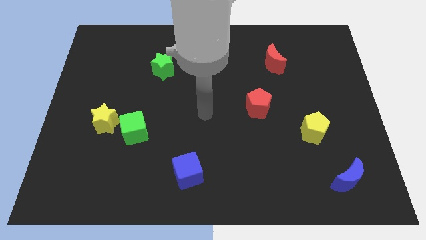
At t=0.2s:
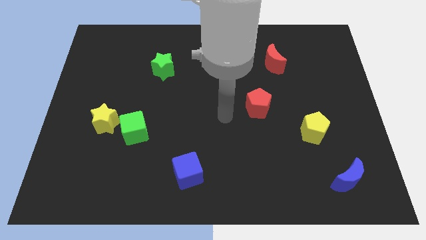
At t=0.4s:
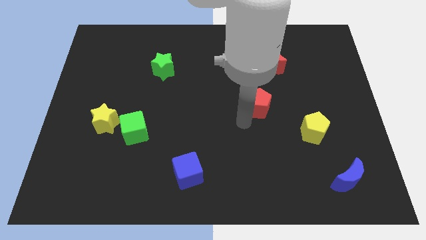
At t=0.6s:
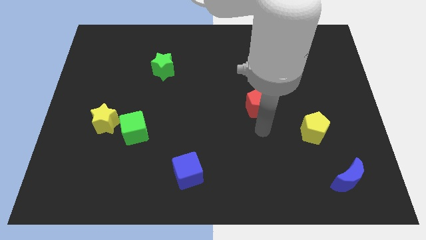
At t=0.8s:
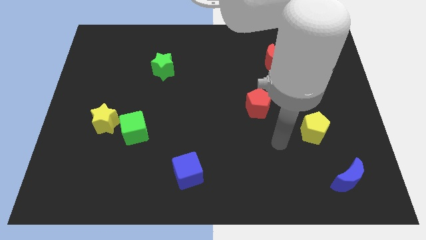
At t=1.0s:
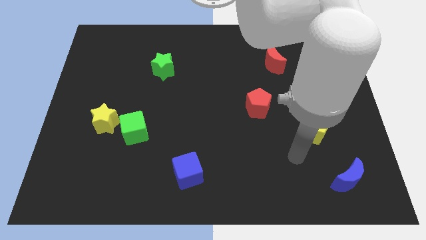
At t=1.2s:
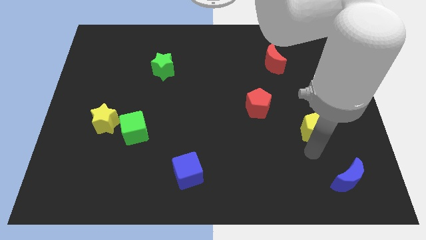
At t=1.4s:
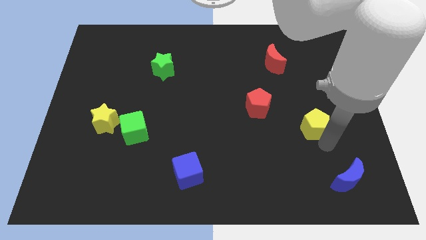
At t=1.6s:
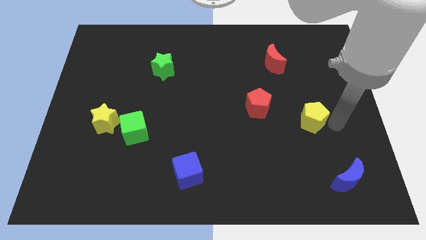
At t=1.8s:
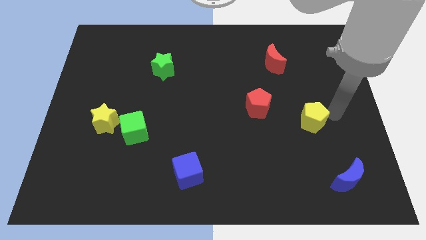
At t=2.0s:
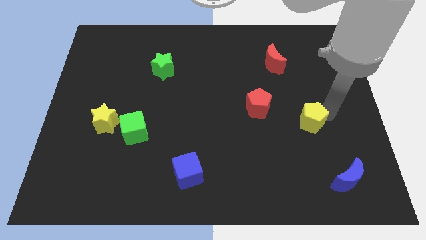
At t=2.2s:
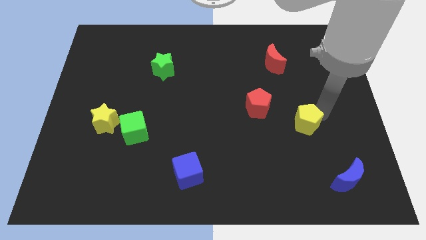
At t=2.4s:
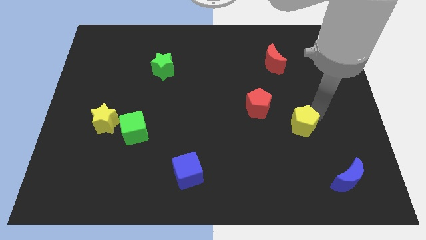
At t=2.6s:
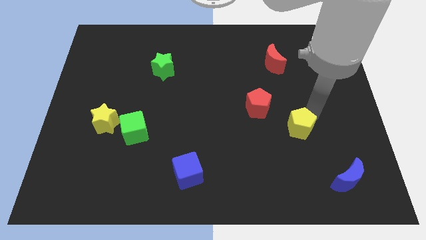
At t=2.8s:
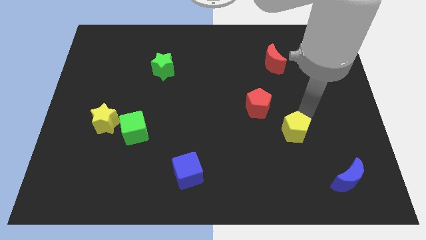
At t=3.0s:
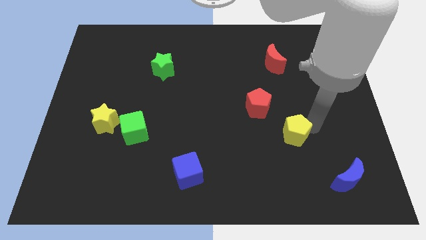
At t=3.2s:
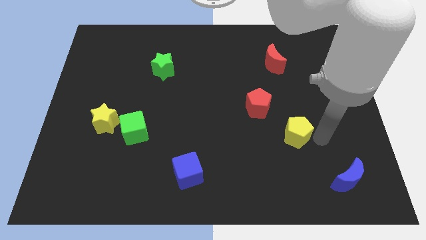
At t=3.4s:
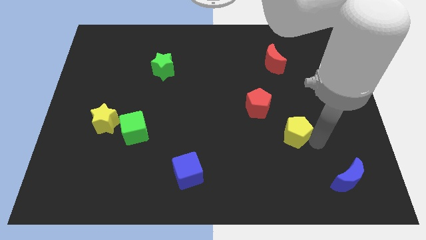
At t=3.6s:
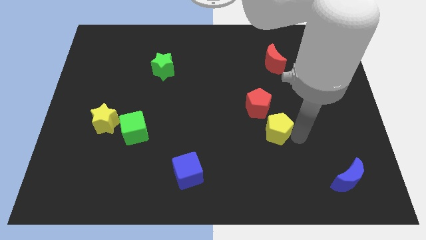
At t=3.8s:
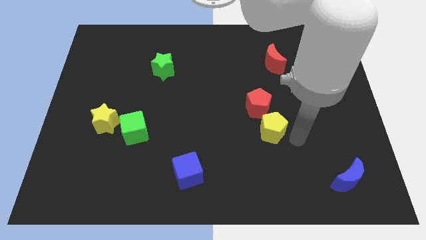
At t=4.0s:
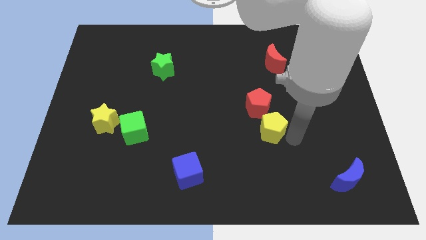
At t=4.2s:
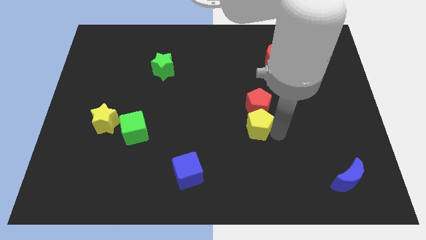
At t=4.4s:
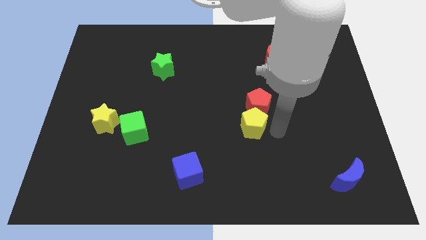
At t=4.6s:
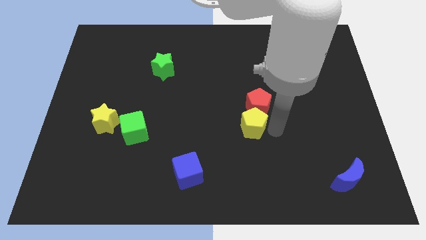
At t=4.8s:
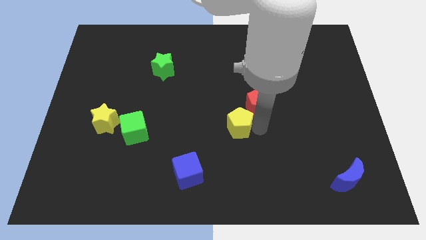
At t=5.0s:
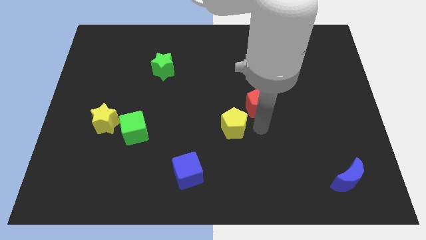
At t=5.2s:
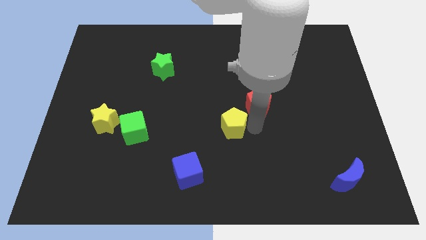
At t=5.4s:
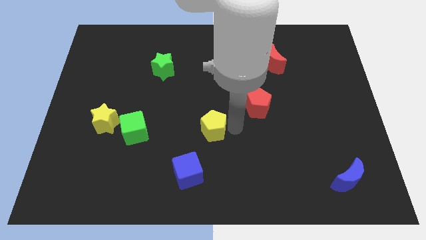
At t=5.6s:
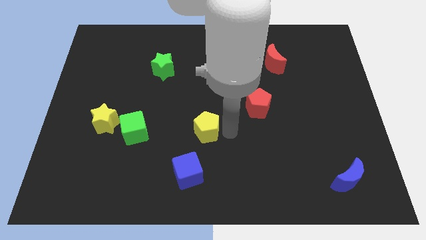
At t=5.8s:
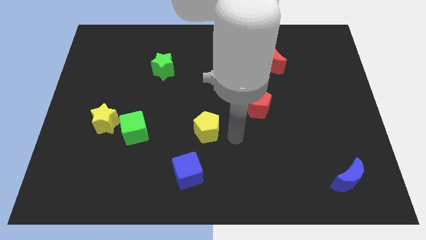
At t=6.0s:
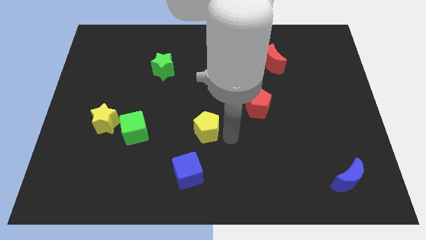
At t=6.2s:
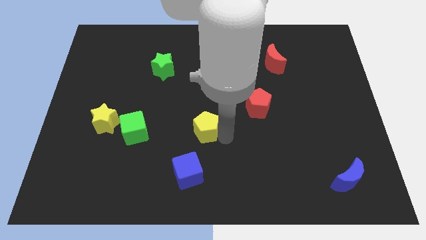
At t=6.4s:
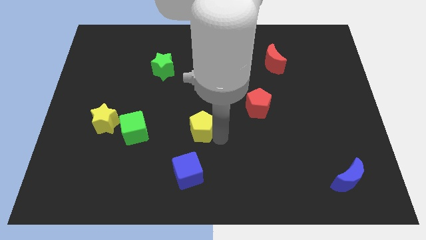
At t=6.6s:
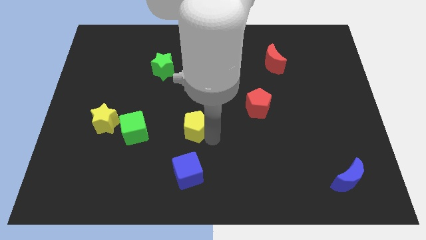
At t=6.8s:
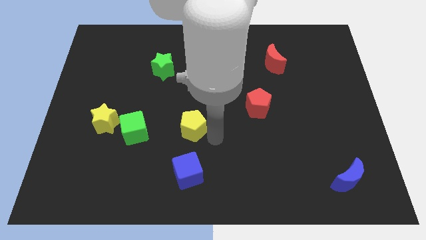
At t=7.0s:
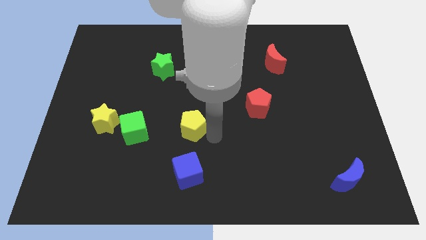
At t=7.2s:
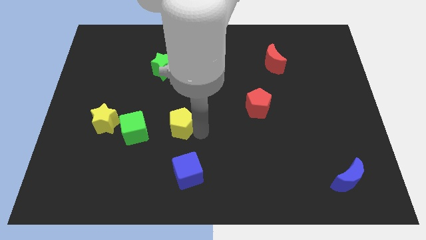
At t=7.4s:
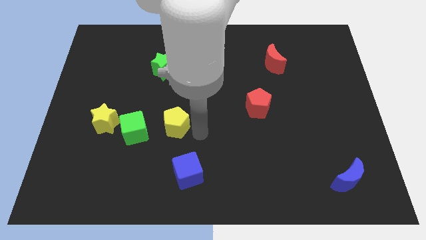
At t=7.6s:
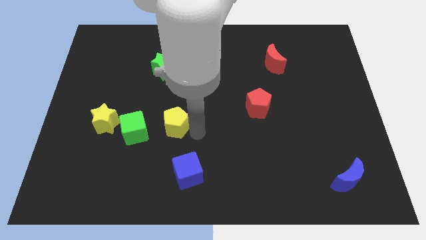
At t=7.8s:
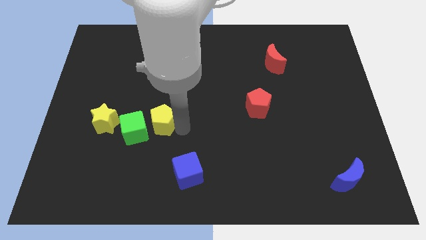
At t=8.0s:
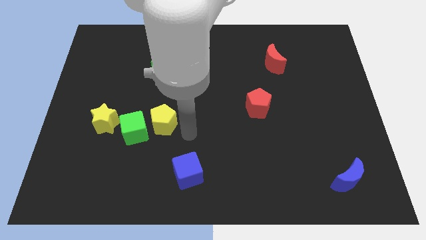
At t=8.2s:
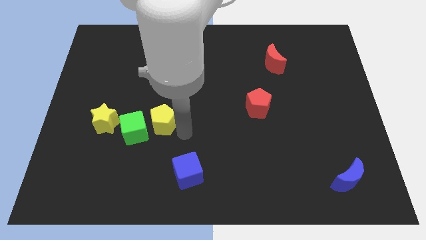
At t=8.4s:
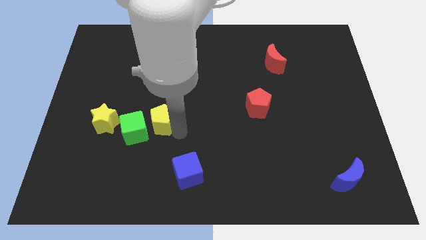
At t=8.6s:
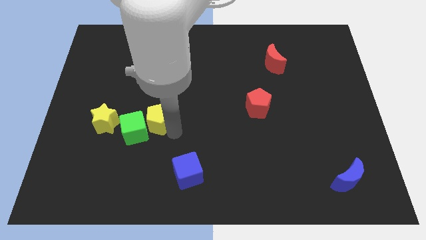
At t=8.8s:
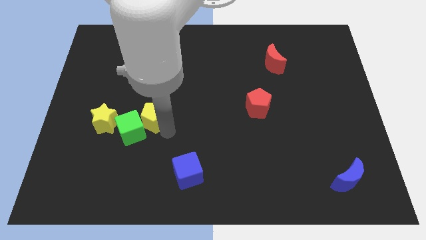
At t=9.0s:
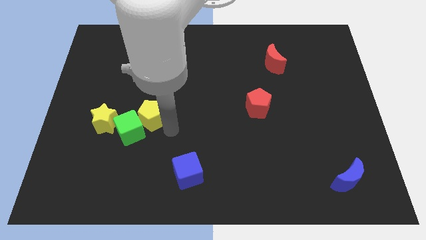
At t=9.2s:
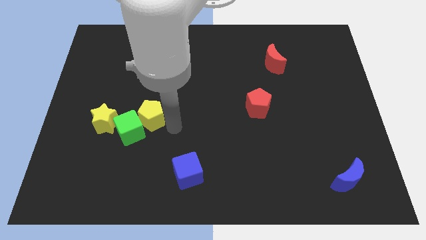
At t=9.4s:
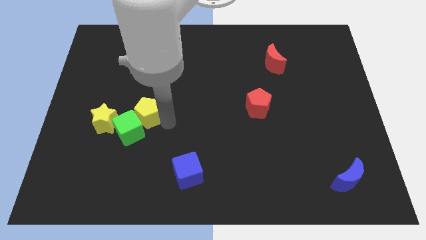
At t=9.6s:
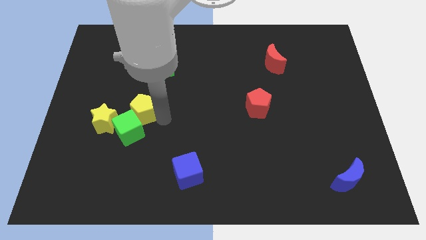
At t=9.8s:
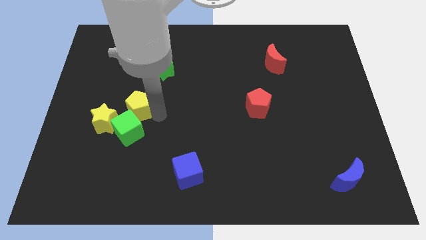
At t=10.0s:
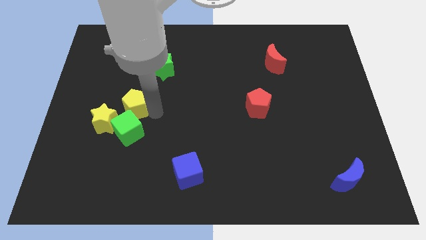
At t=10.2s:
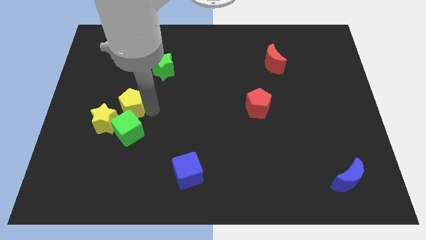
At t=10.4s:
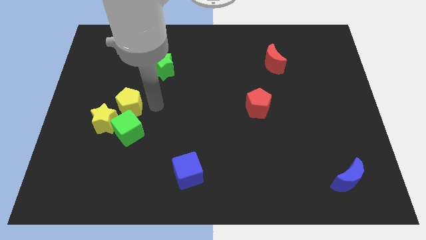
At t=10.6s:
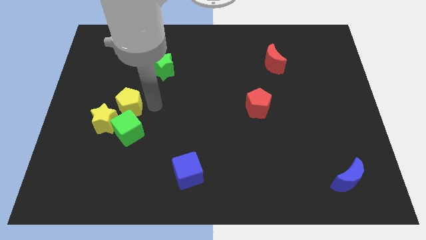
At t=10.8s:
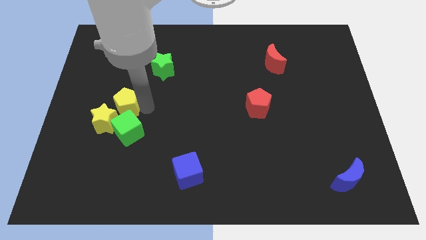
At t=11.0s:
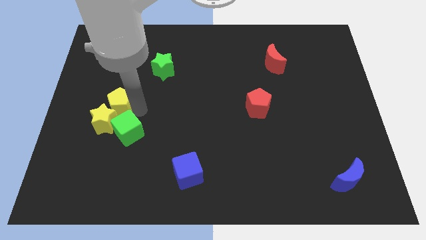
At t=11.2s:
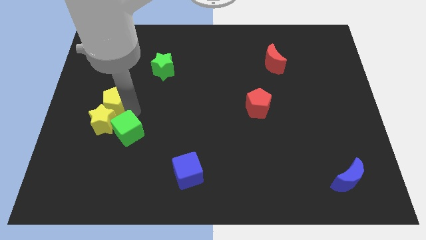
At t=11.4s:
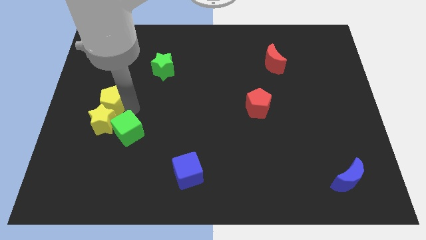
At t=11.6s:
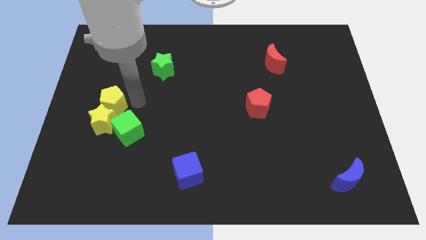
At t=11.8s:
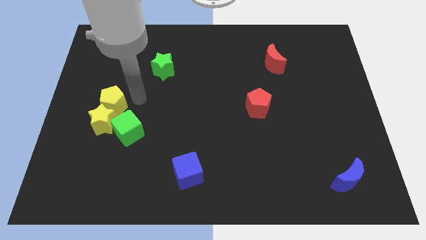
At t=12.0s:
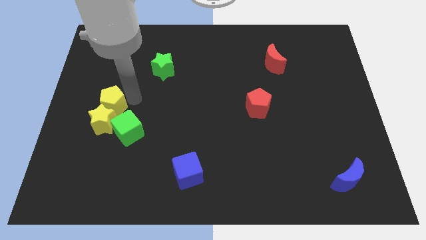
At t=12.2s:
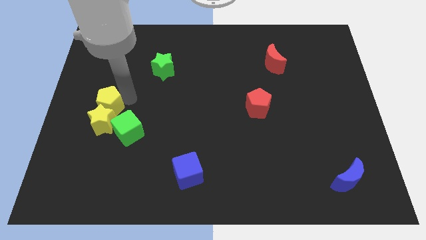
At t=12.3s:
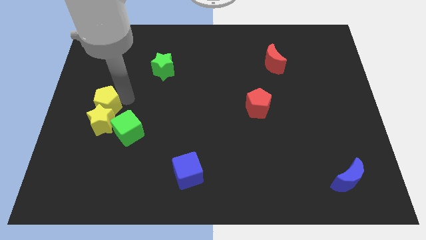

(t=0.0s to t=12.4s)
move the yellow pentagon to the left side of the board

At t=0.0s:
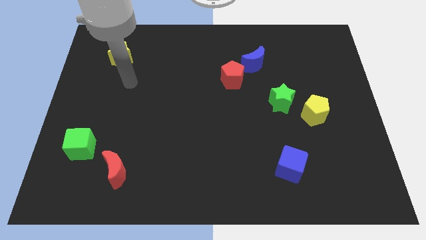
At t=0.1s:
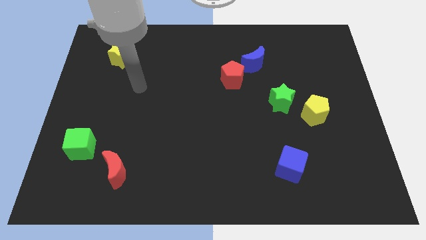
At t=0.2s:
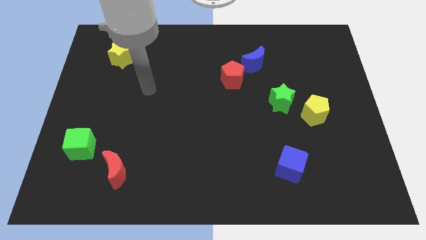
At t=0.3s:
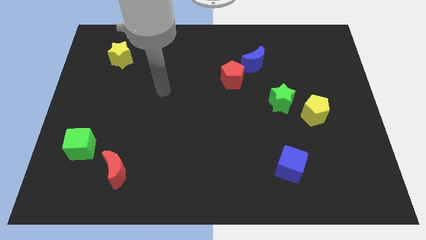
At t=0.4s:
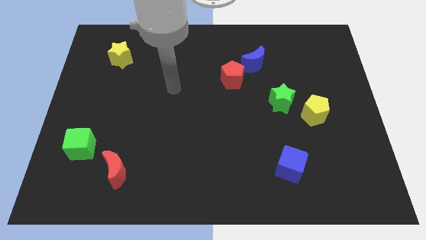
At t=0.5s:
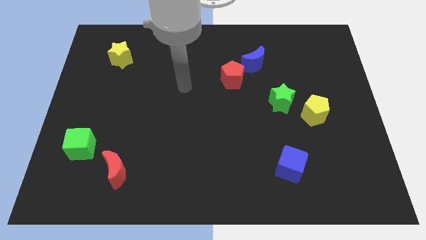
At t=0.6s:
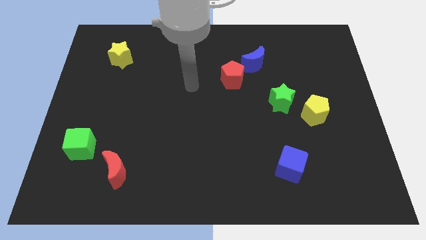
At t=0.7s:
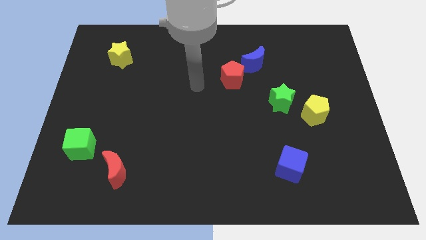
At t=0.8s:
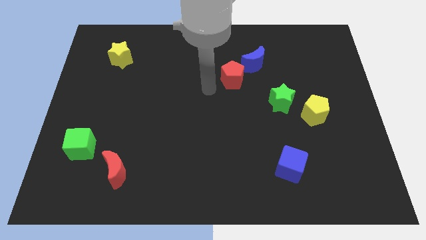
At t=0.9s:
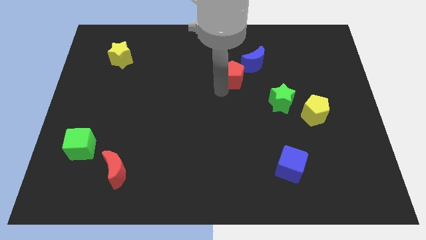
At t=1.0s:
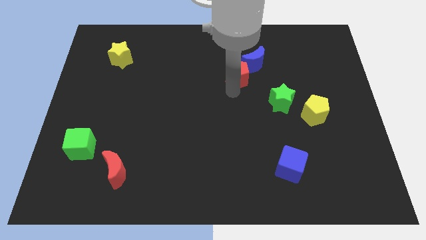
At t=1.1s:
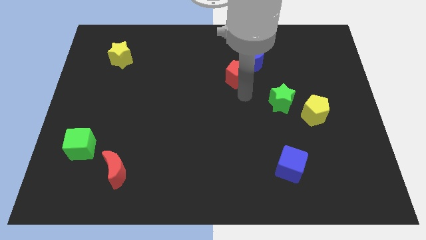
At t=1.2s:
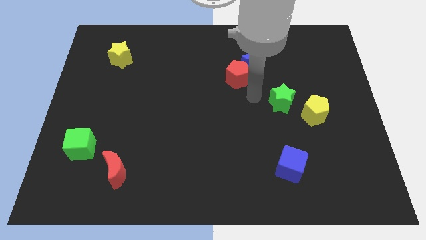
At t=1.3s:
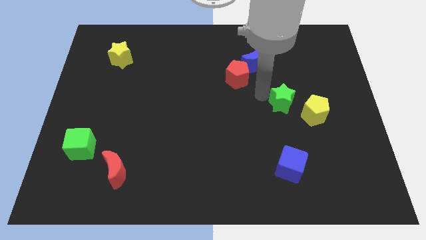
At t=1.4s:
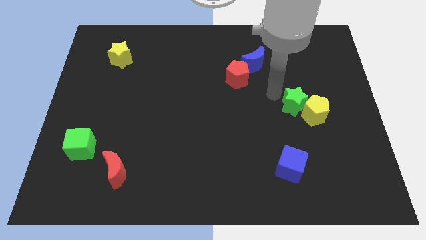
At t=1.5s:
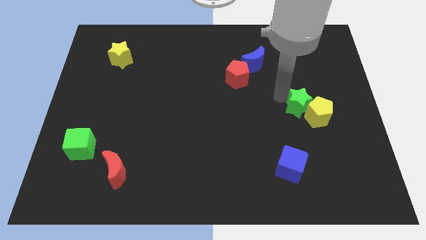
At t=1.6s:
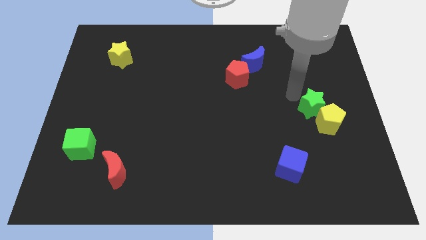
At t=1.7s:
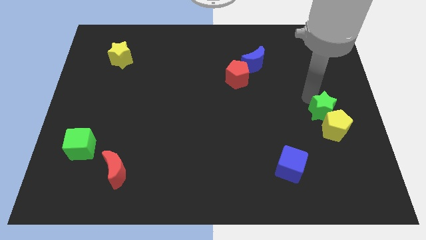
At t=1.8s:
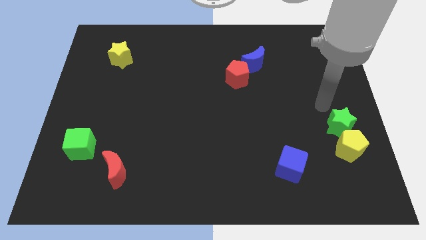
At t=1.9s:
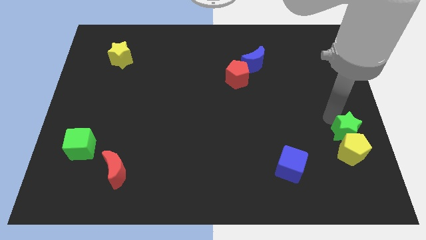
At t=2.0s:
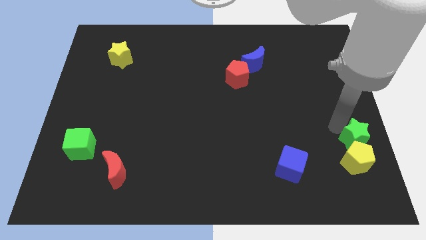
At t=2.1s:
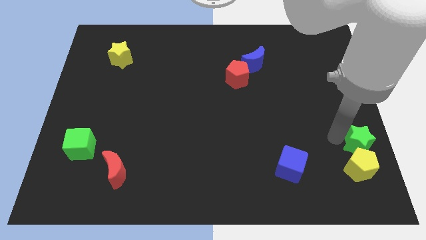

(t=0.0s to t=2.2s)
move the yellow pentagon to the bottom right
